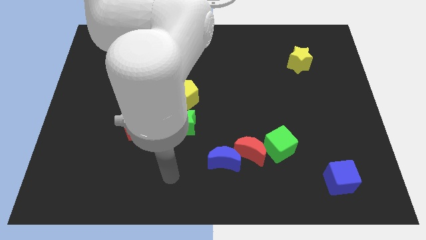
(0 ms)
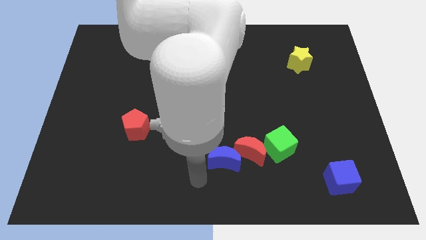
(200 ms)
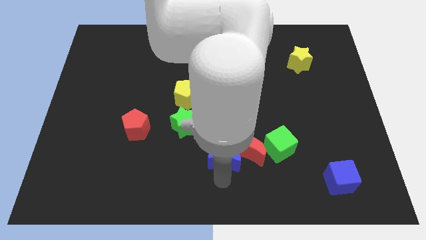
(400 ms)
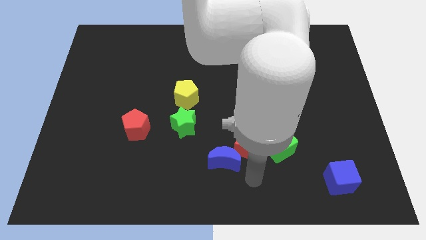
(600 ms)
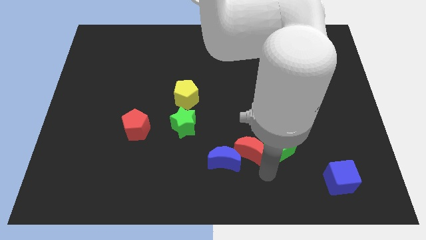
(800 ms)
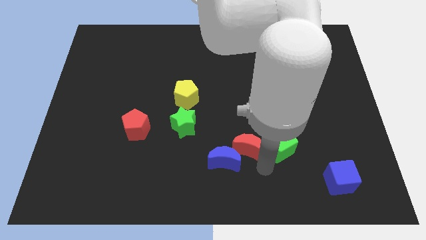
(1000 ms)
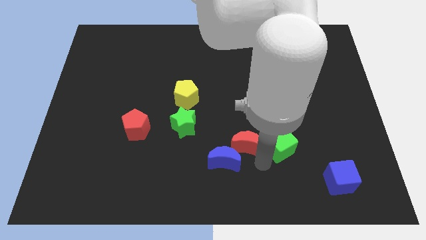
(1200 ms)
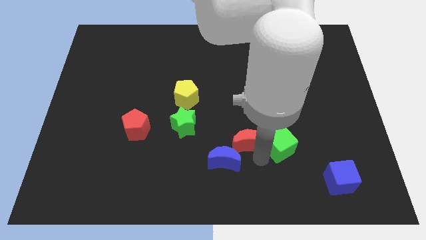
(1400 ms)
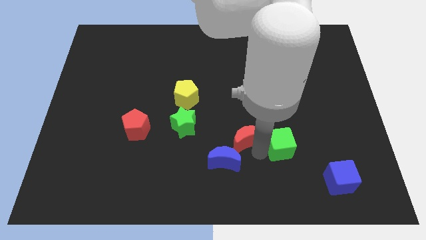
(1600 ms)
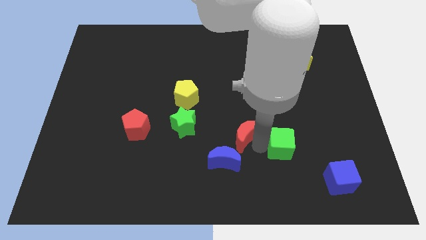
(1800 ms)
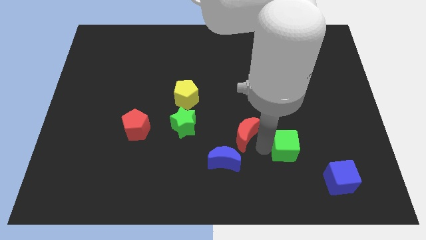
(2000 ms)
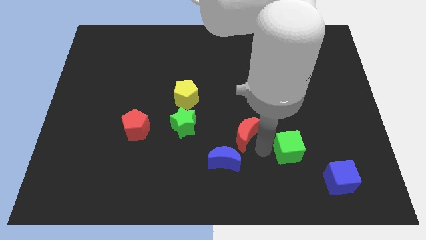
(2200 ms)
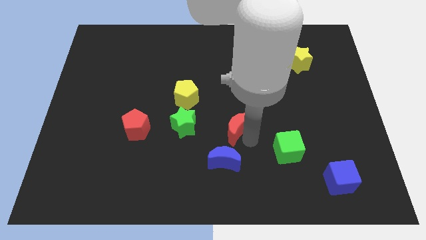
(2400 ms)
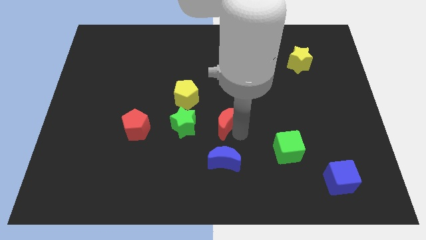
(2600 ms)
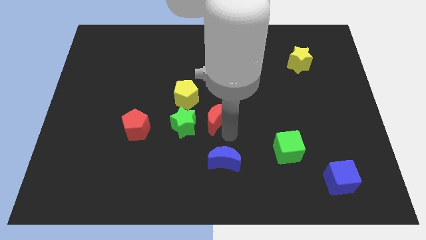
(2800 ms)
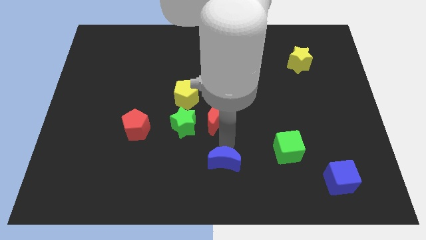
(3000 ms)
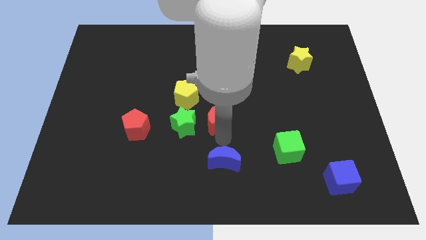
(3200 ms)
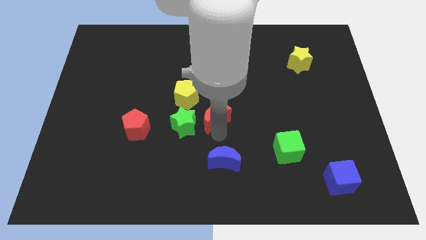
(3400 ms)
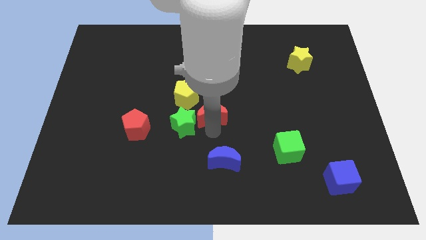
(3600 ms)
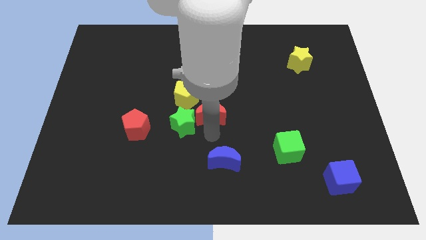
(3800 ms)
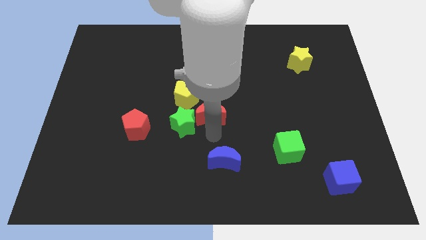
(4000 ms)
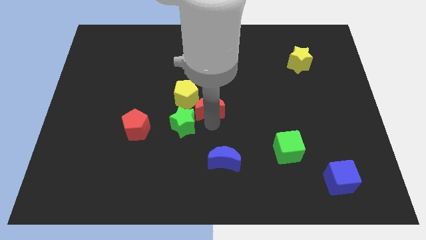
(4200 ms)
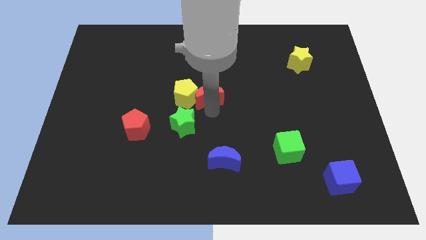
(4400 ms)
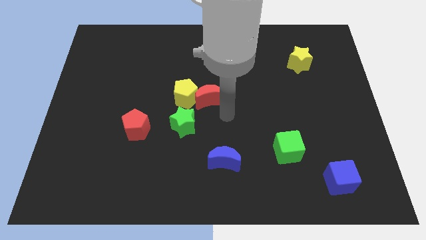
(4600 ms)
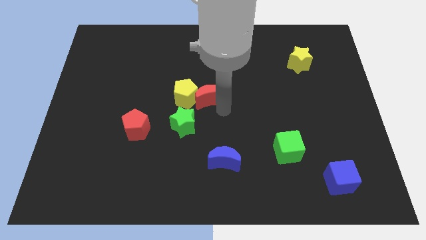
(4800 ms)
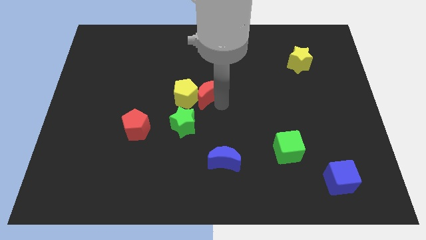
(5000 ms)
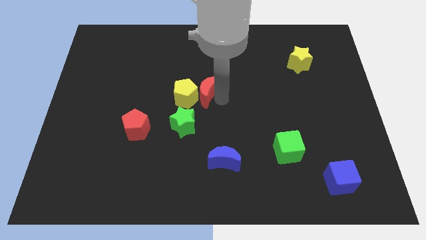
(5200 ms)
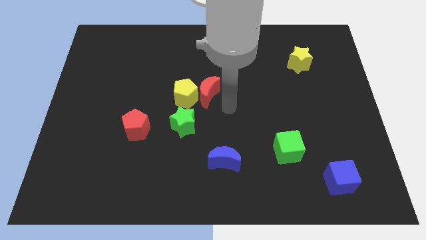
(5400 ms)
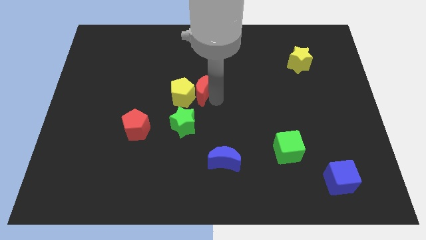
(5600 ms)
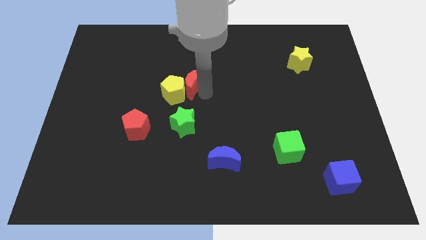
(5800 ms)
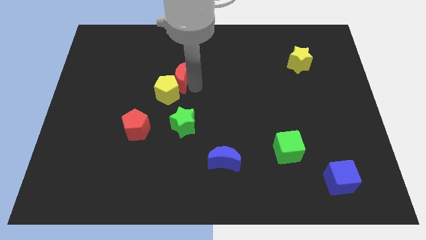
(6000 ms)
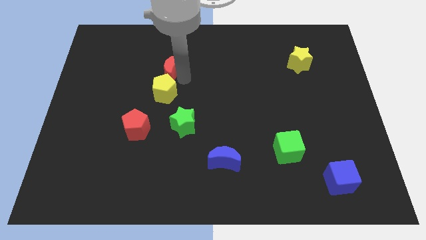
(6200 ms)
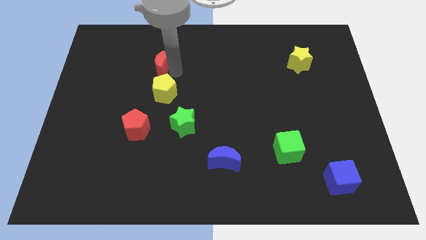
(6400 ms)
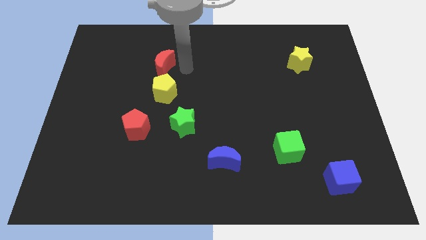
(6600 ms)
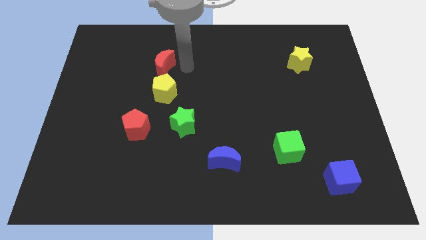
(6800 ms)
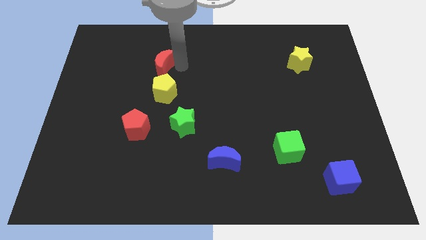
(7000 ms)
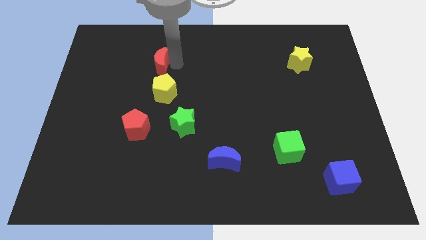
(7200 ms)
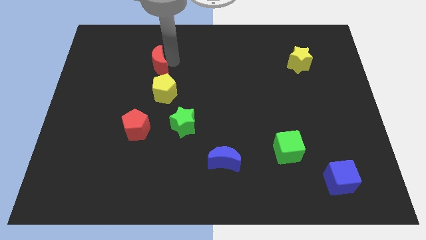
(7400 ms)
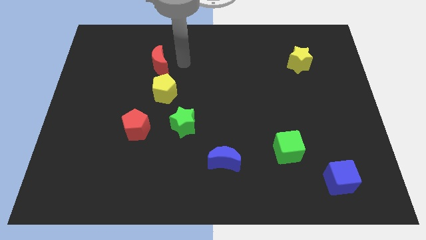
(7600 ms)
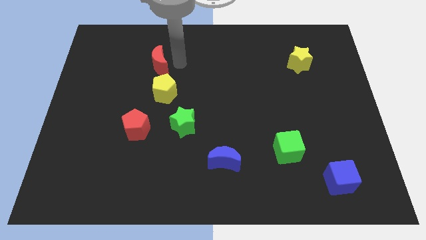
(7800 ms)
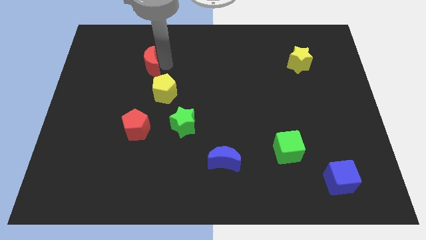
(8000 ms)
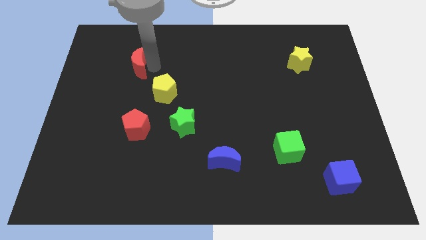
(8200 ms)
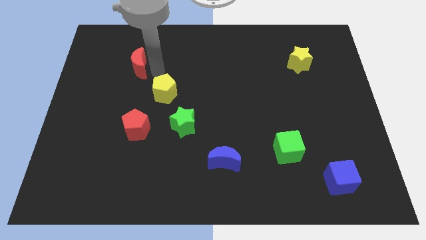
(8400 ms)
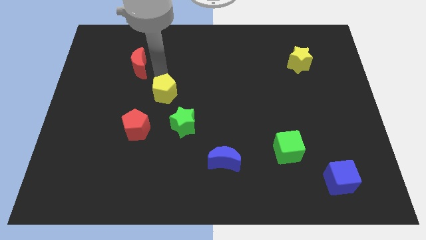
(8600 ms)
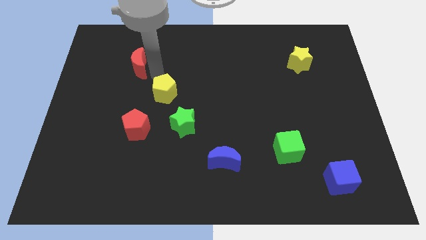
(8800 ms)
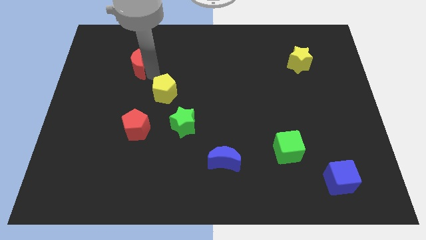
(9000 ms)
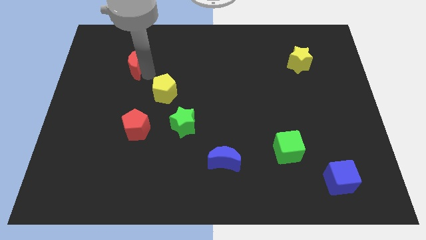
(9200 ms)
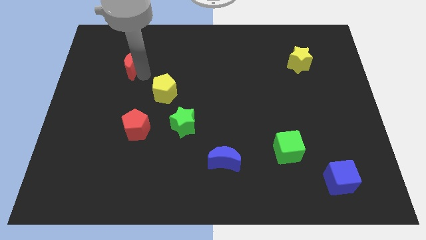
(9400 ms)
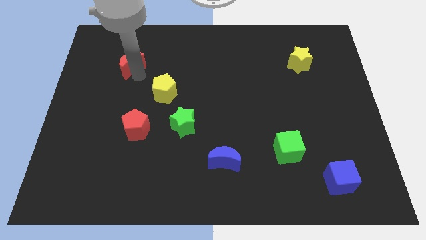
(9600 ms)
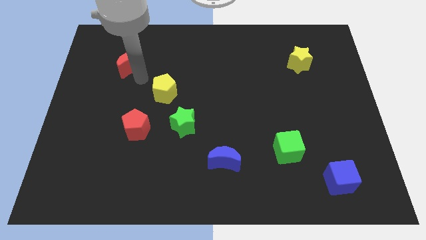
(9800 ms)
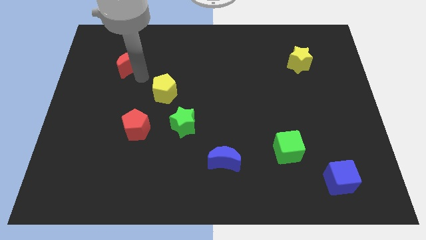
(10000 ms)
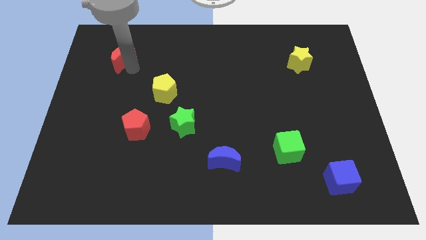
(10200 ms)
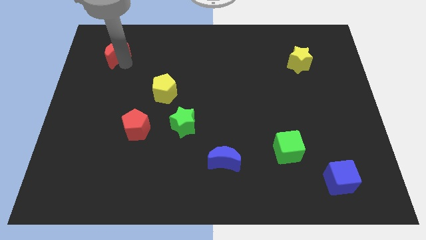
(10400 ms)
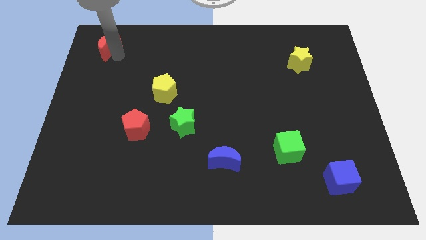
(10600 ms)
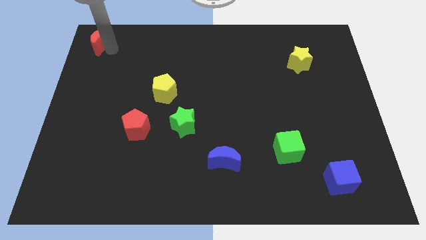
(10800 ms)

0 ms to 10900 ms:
push the red moon to the top left of the board

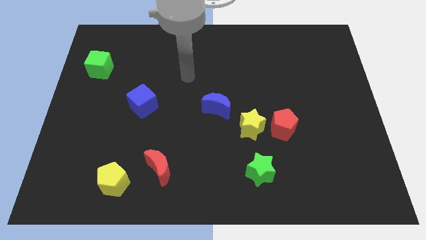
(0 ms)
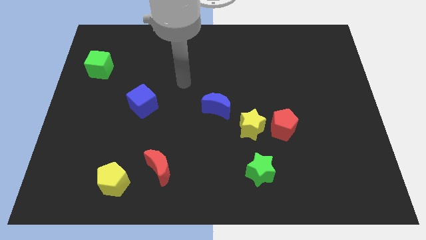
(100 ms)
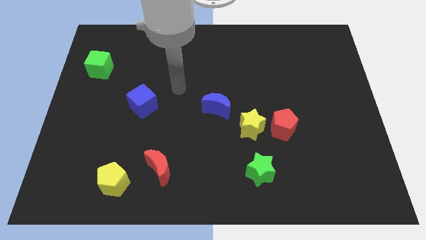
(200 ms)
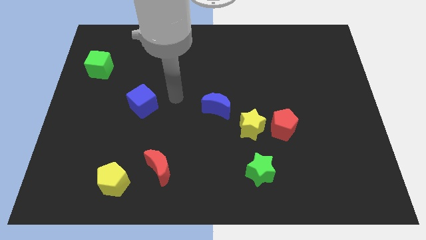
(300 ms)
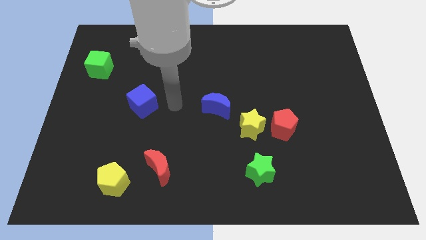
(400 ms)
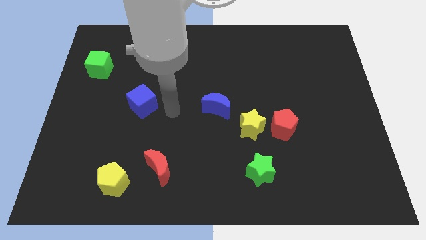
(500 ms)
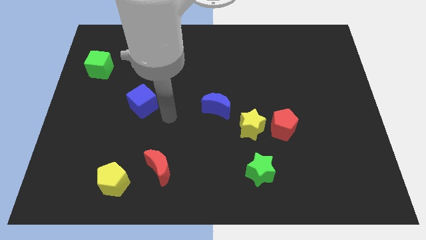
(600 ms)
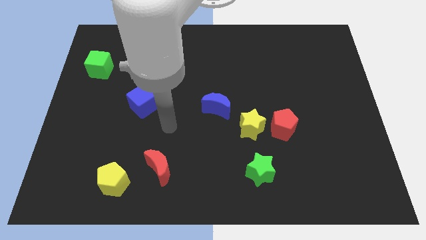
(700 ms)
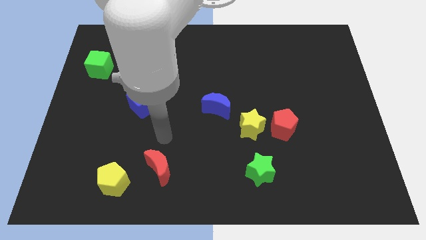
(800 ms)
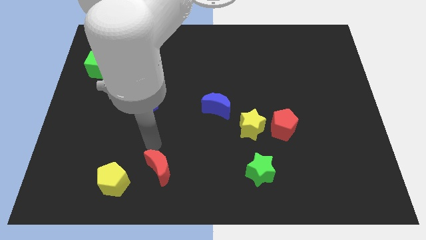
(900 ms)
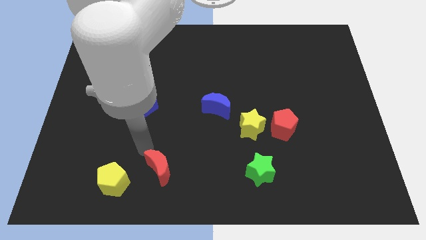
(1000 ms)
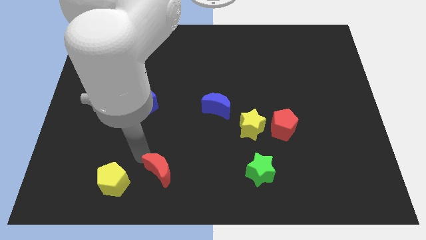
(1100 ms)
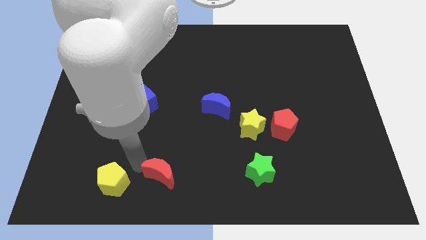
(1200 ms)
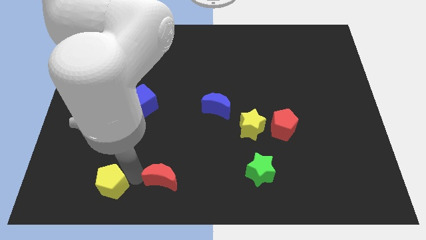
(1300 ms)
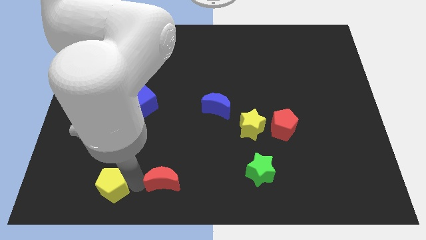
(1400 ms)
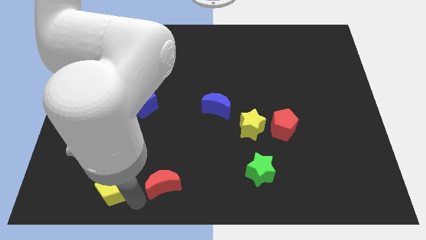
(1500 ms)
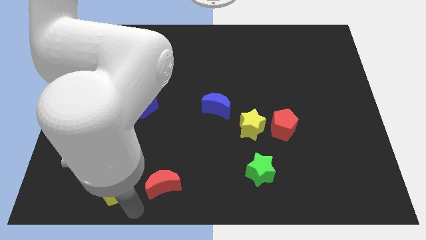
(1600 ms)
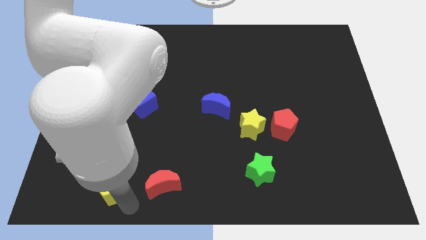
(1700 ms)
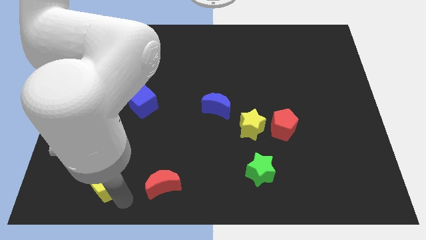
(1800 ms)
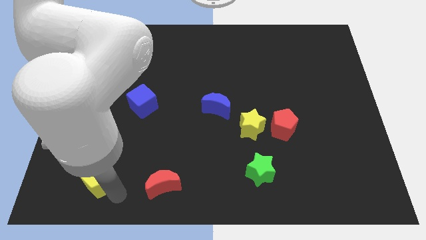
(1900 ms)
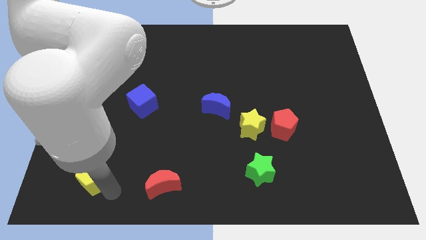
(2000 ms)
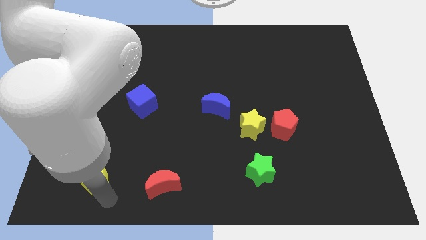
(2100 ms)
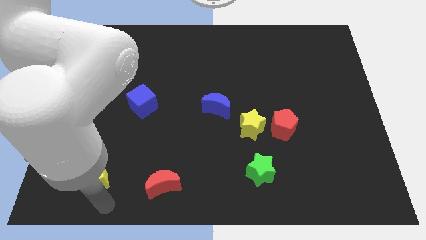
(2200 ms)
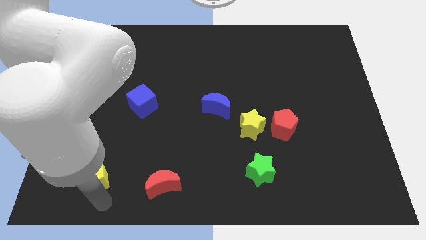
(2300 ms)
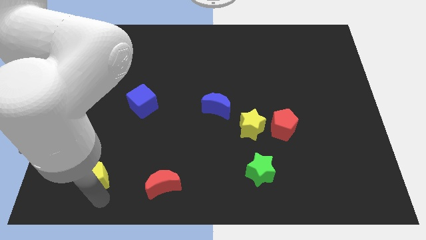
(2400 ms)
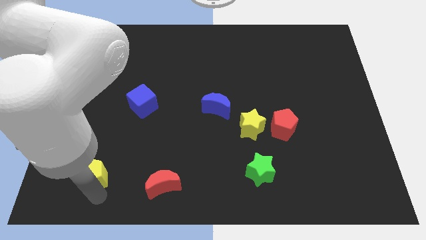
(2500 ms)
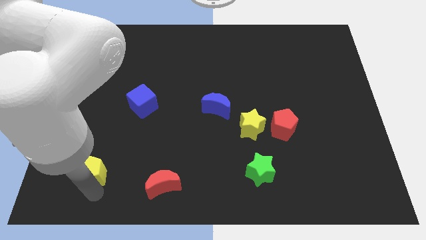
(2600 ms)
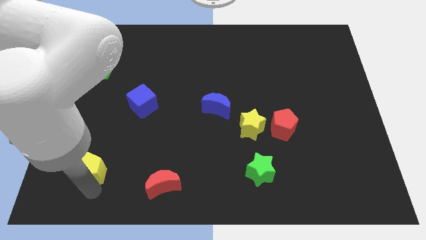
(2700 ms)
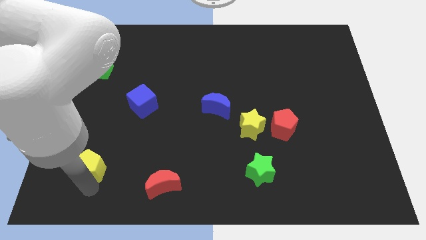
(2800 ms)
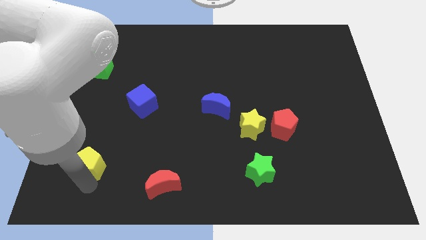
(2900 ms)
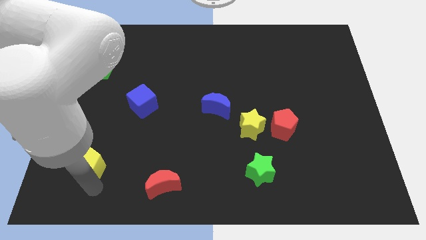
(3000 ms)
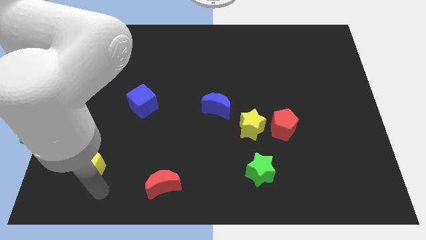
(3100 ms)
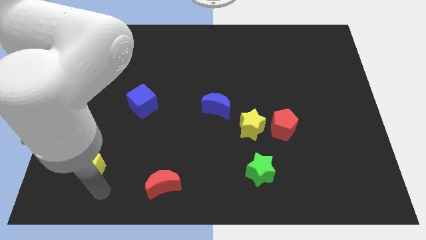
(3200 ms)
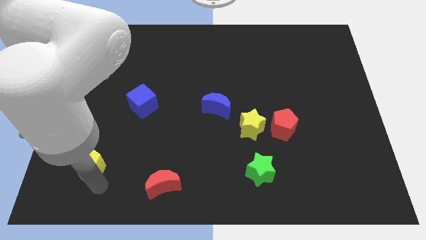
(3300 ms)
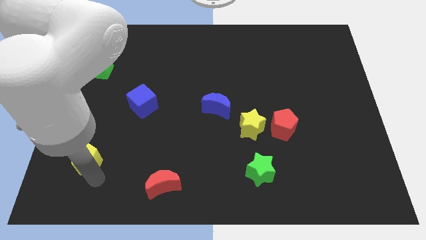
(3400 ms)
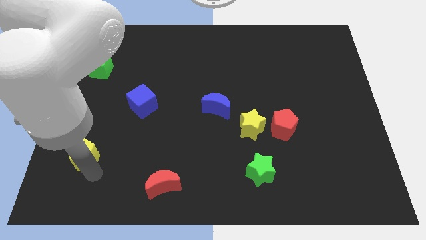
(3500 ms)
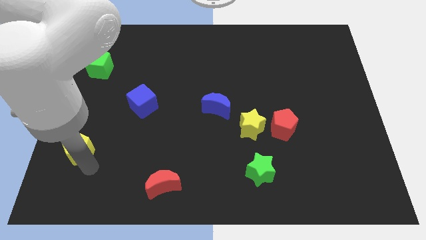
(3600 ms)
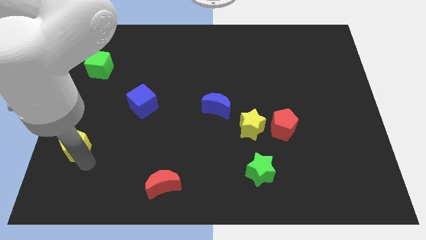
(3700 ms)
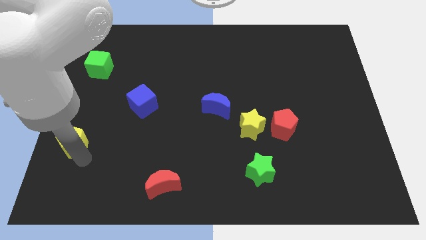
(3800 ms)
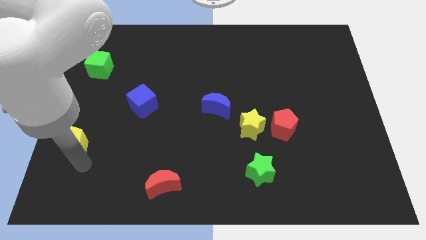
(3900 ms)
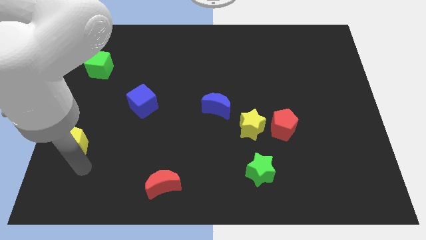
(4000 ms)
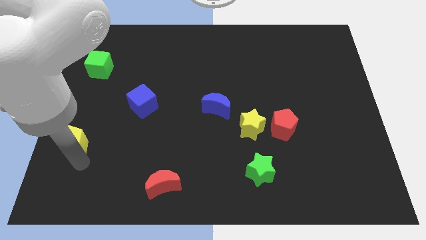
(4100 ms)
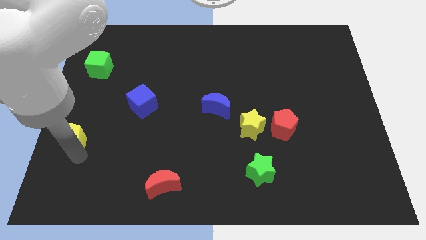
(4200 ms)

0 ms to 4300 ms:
slide the yellow pentagon to the left side of the board
